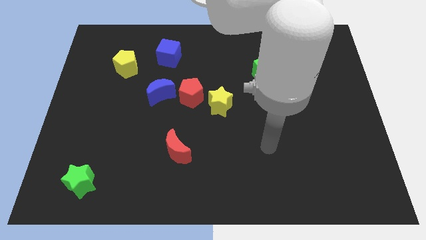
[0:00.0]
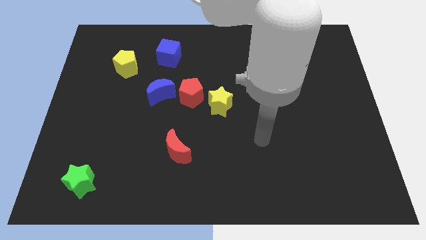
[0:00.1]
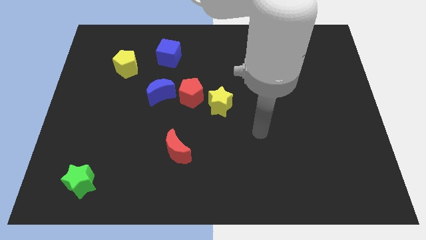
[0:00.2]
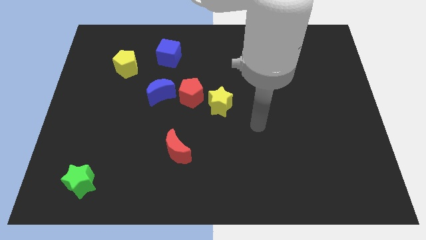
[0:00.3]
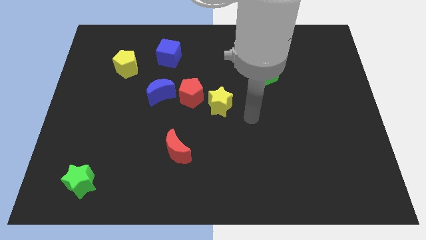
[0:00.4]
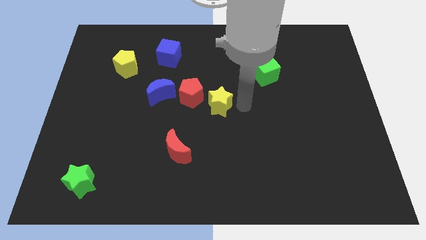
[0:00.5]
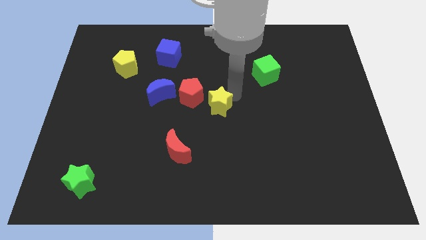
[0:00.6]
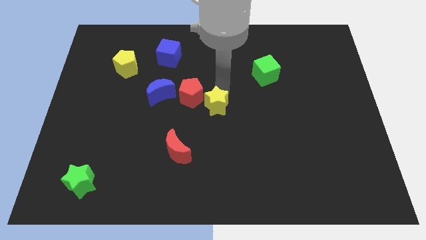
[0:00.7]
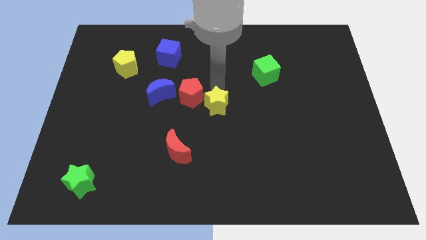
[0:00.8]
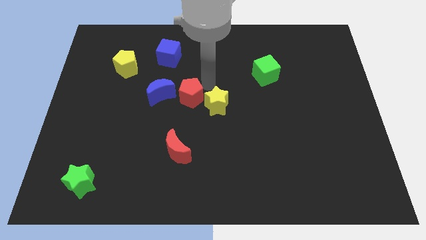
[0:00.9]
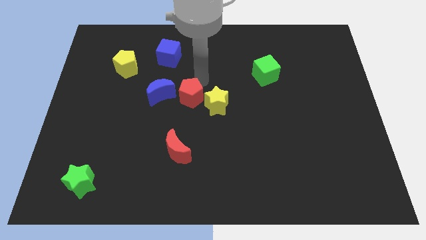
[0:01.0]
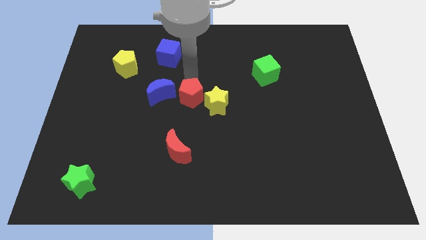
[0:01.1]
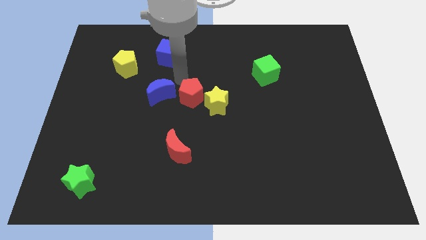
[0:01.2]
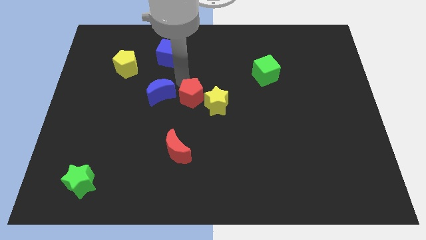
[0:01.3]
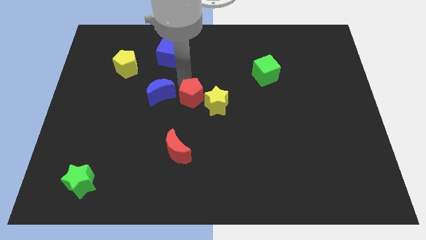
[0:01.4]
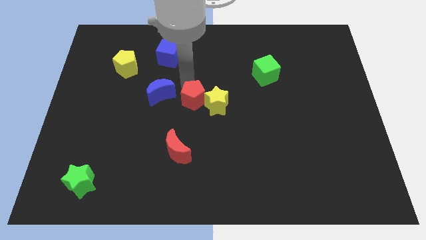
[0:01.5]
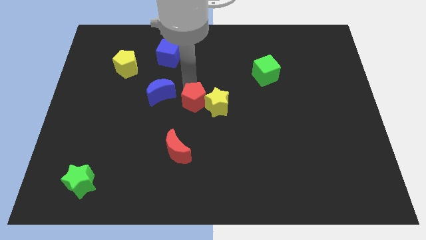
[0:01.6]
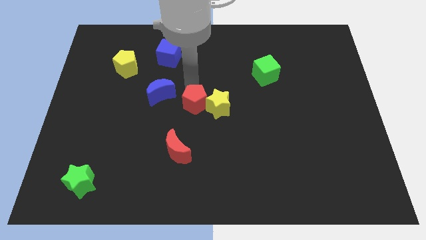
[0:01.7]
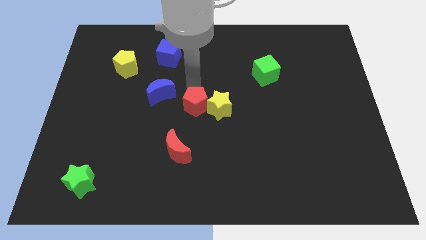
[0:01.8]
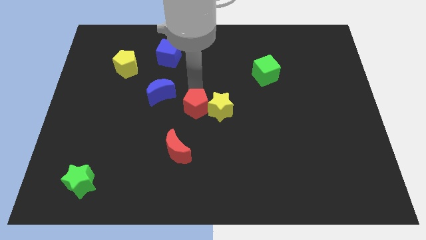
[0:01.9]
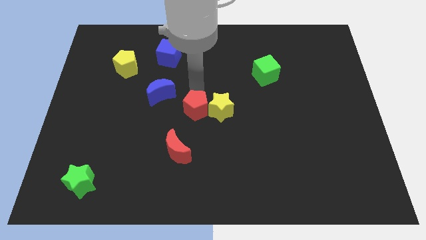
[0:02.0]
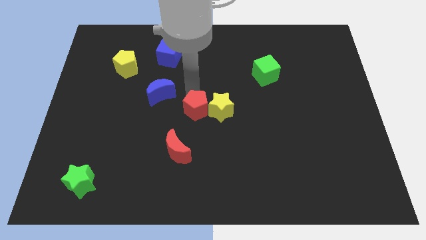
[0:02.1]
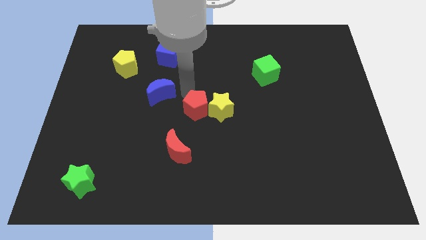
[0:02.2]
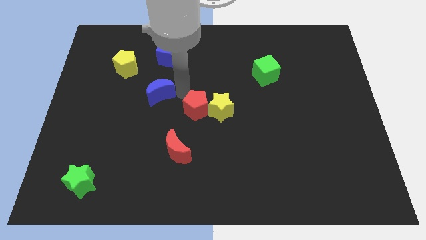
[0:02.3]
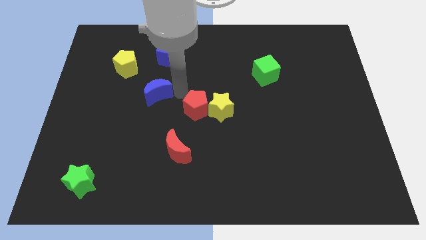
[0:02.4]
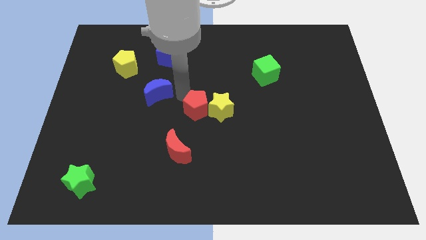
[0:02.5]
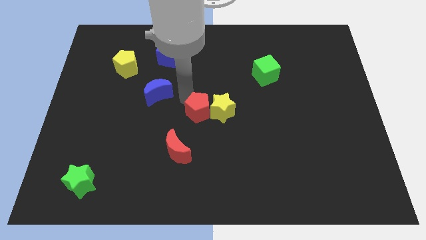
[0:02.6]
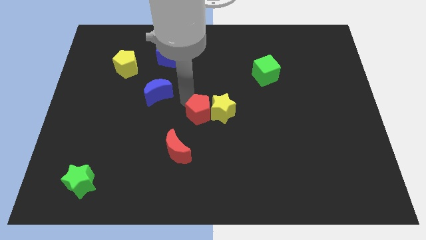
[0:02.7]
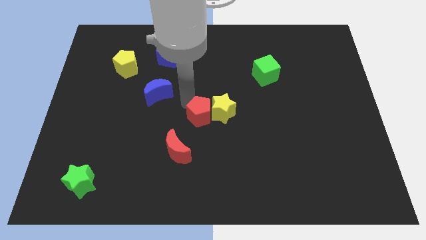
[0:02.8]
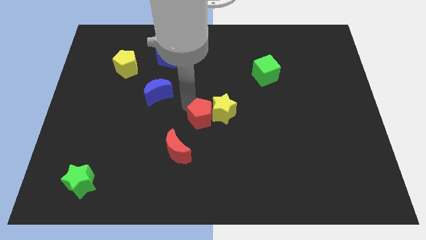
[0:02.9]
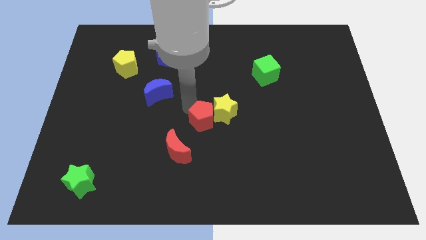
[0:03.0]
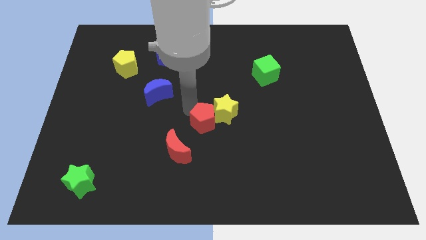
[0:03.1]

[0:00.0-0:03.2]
slide the red pentagon downwards and to the right diagonally a little

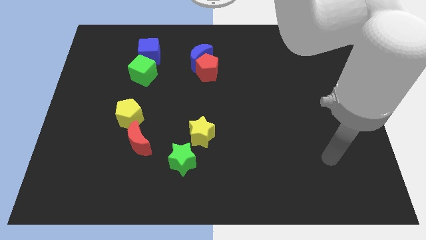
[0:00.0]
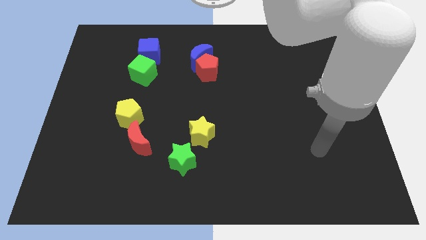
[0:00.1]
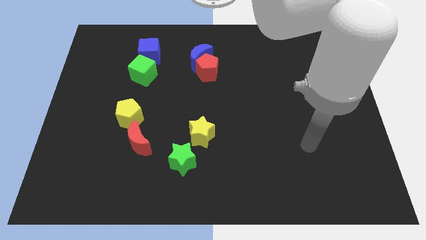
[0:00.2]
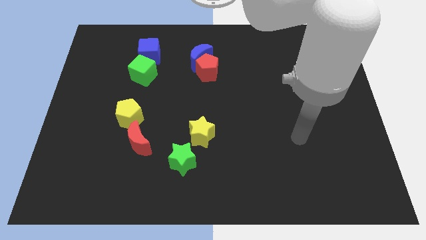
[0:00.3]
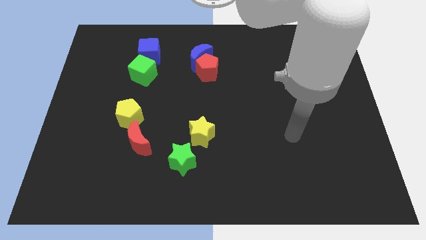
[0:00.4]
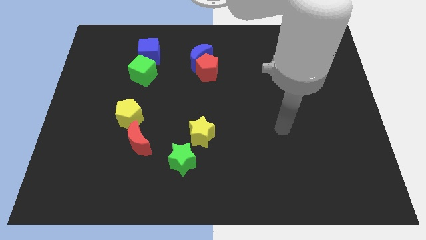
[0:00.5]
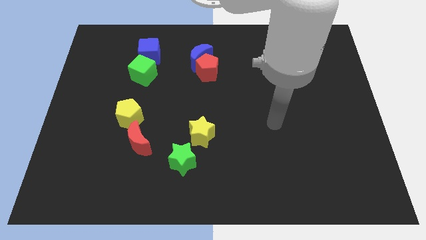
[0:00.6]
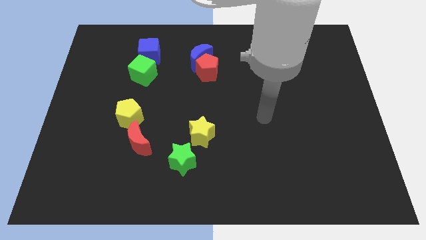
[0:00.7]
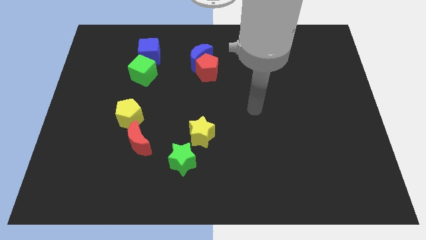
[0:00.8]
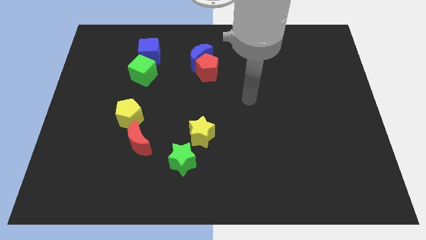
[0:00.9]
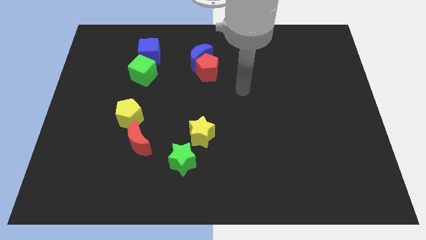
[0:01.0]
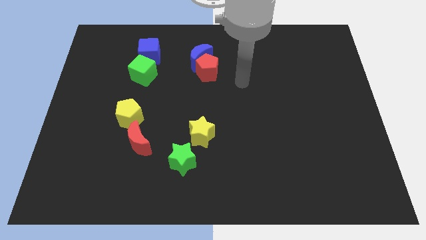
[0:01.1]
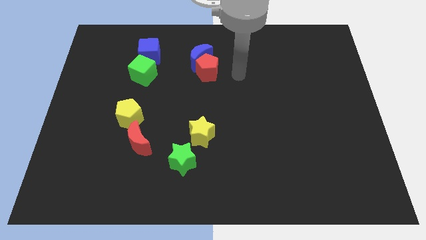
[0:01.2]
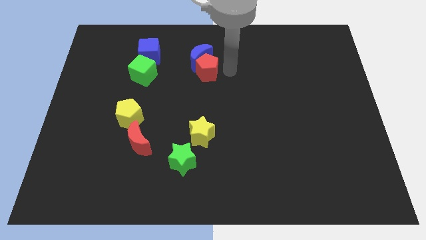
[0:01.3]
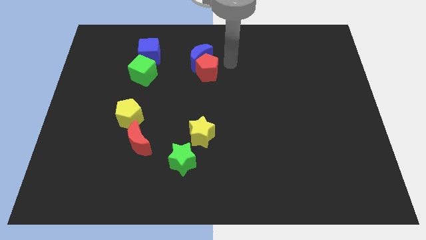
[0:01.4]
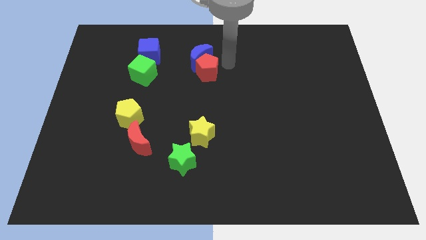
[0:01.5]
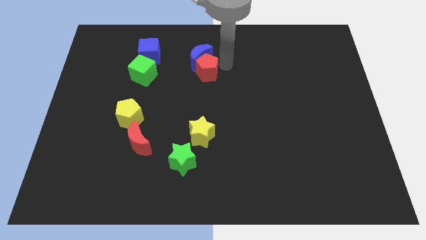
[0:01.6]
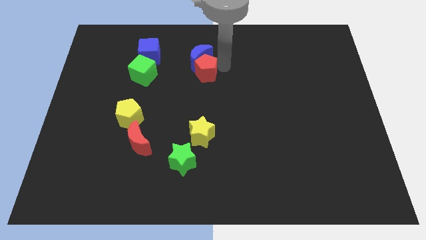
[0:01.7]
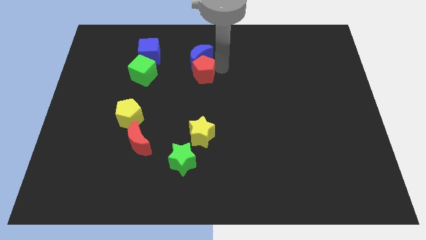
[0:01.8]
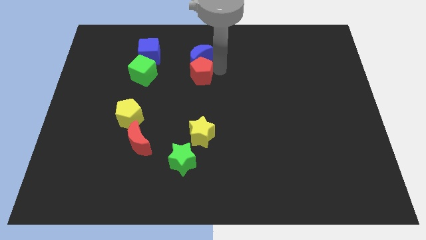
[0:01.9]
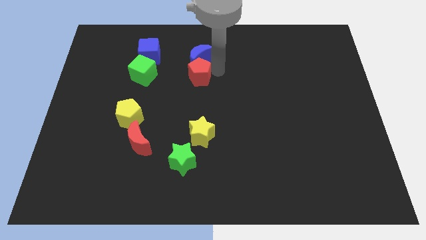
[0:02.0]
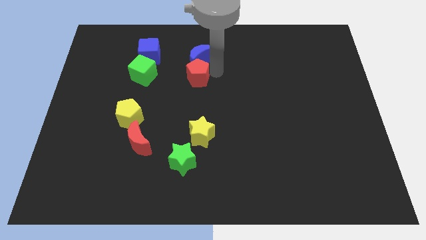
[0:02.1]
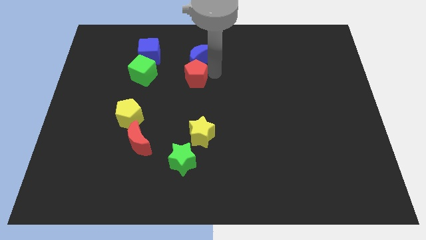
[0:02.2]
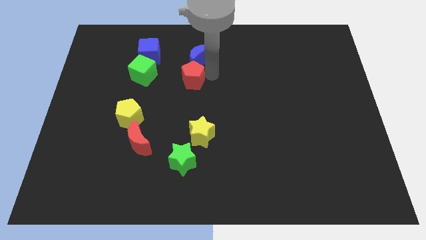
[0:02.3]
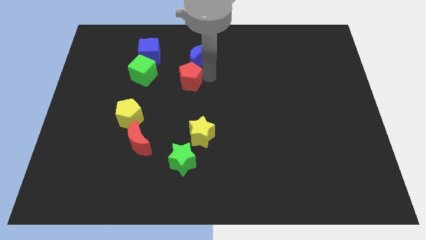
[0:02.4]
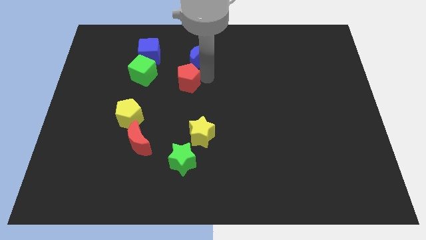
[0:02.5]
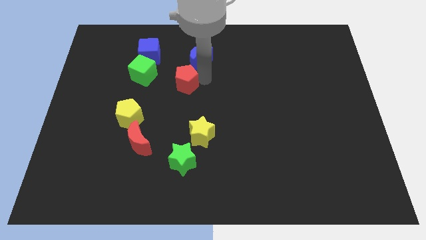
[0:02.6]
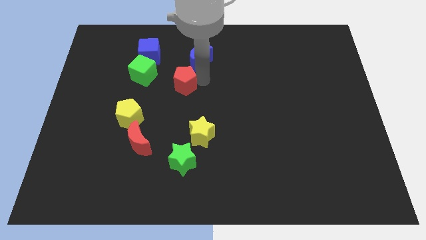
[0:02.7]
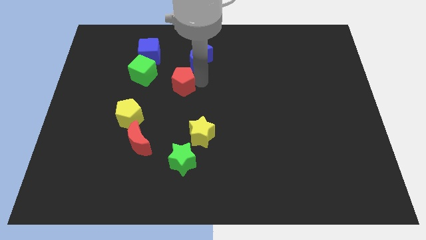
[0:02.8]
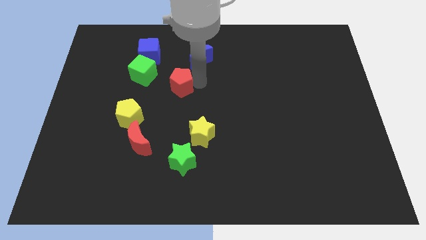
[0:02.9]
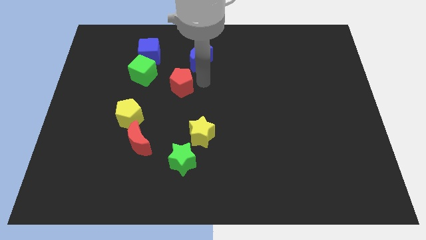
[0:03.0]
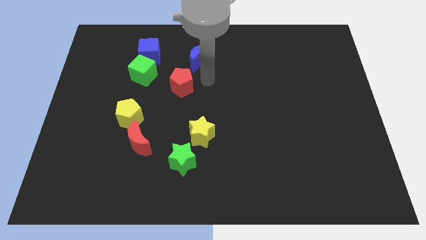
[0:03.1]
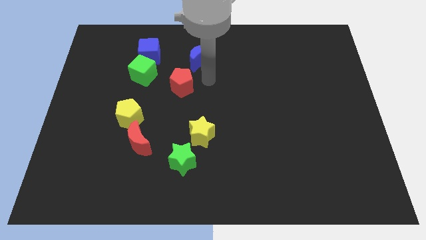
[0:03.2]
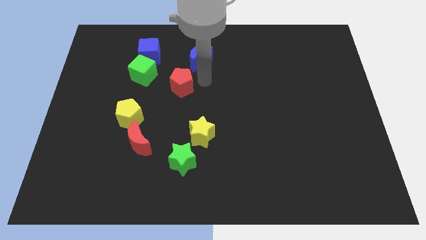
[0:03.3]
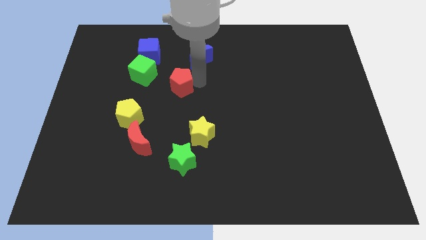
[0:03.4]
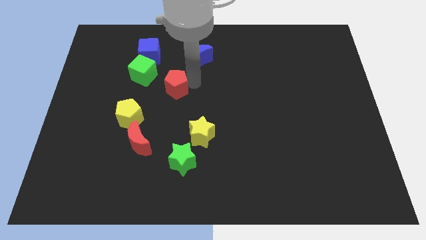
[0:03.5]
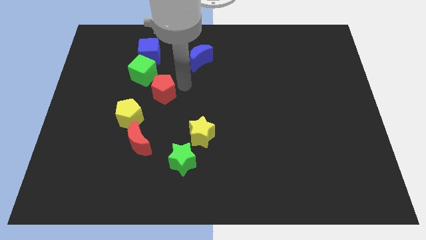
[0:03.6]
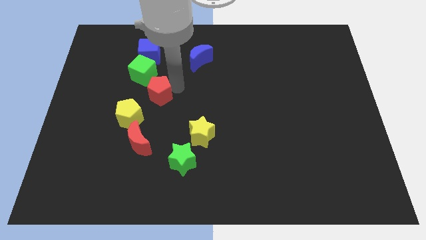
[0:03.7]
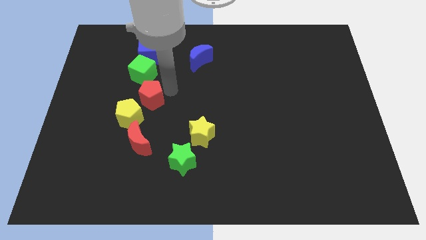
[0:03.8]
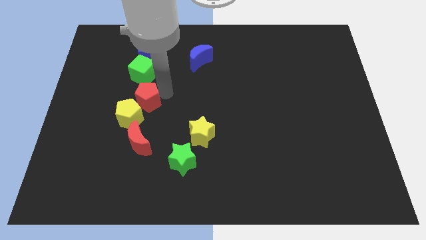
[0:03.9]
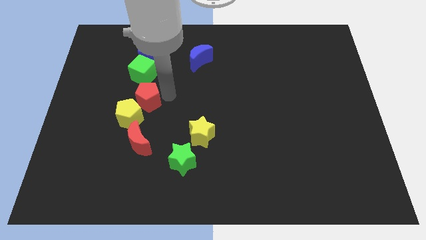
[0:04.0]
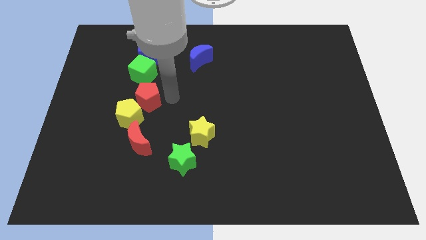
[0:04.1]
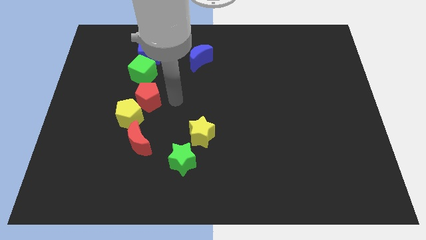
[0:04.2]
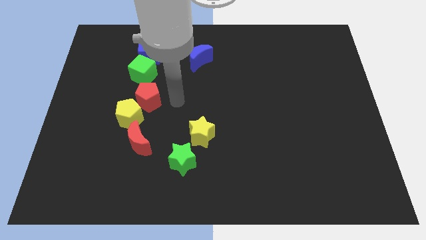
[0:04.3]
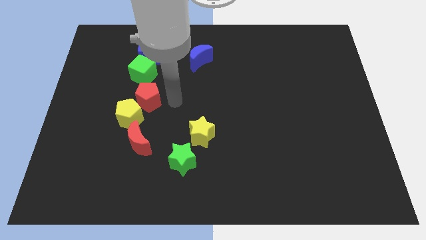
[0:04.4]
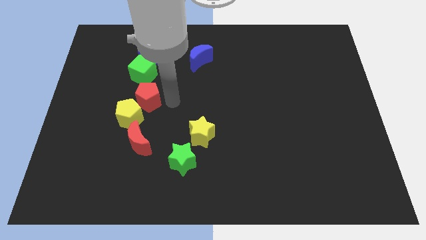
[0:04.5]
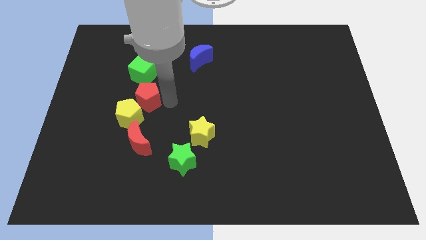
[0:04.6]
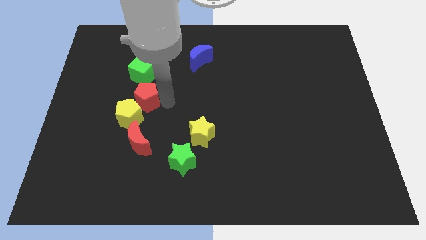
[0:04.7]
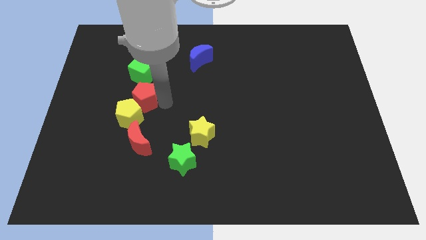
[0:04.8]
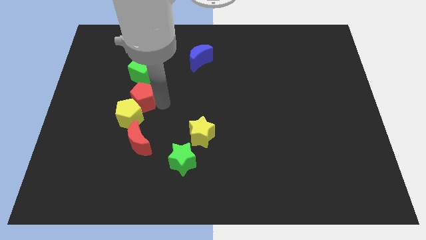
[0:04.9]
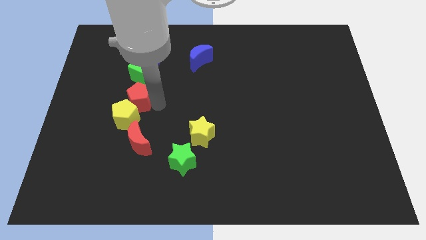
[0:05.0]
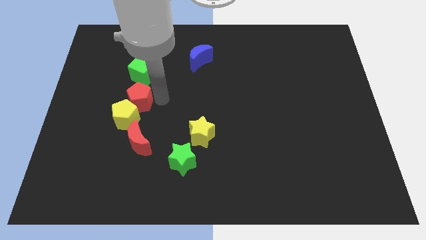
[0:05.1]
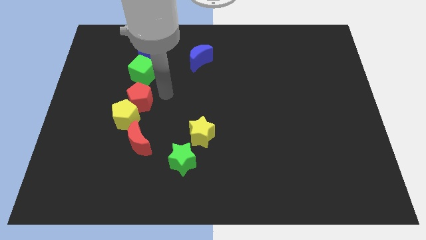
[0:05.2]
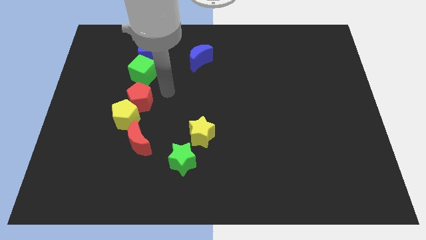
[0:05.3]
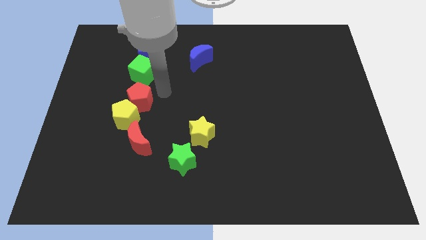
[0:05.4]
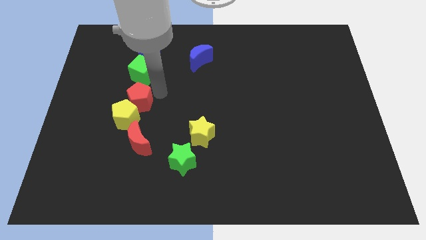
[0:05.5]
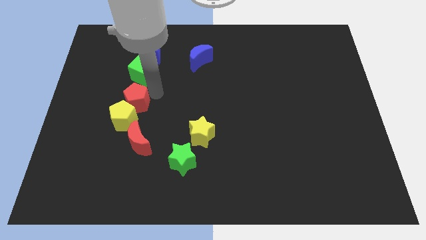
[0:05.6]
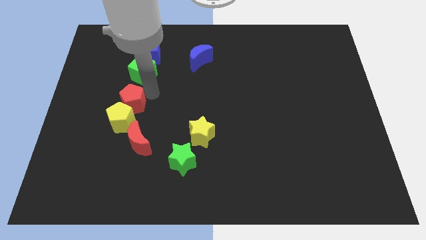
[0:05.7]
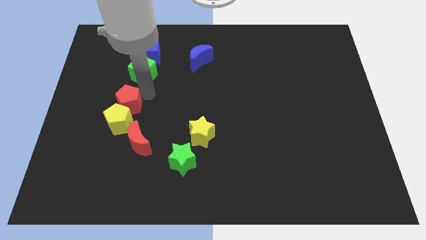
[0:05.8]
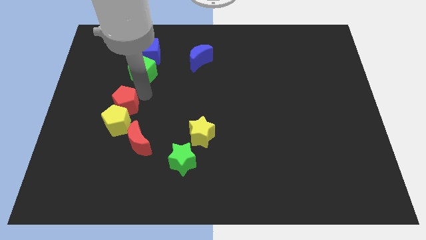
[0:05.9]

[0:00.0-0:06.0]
slide the red pentagon diagonally downwards and left
